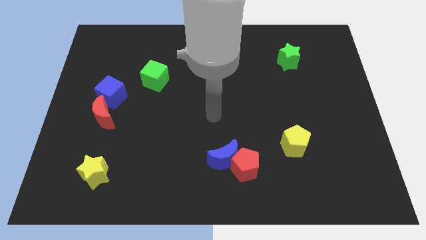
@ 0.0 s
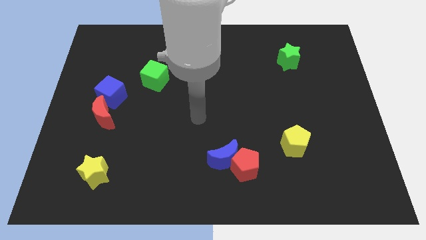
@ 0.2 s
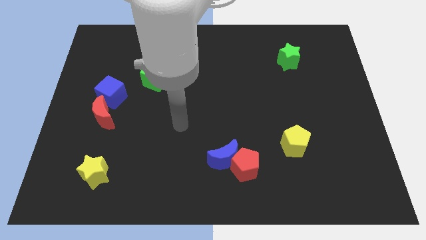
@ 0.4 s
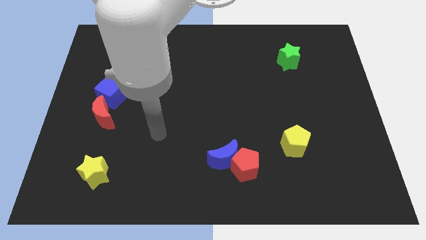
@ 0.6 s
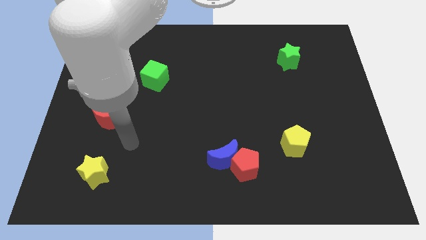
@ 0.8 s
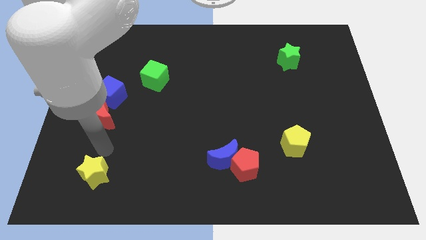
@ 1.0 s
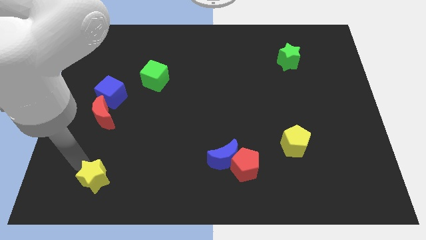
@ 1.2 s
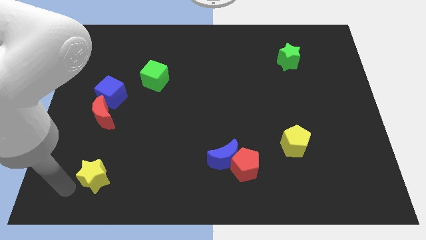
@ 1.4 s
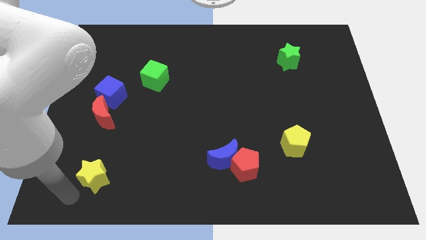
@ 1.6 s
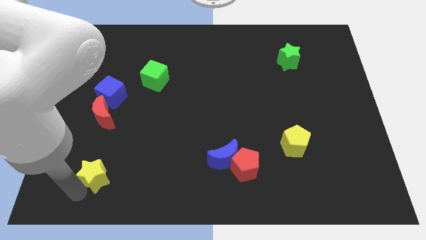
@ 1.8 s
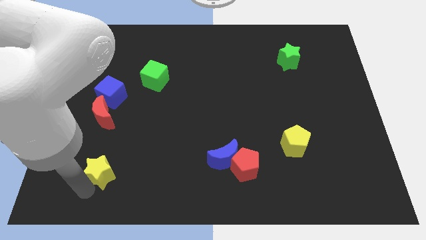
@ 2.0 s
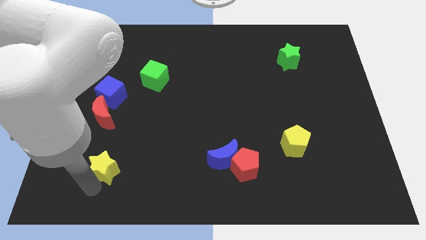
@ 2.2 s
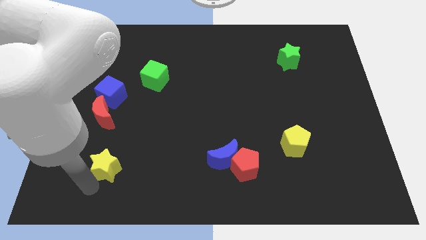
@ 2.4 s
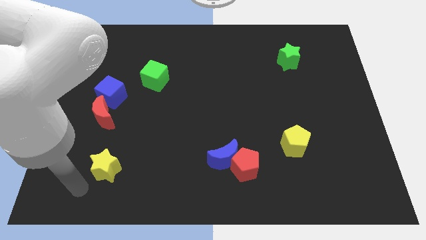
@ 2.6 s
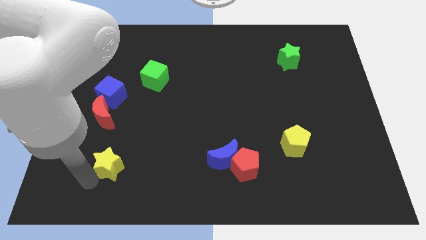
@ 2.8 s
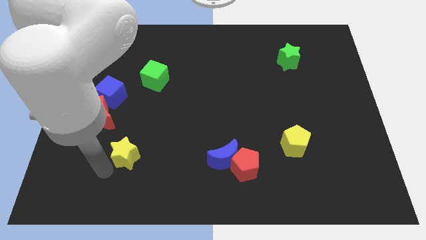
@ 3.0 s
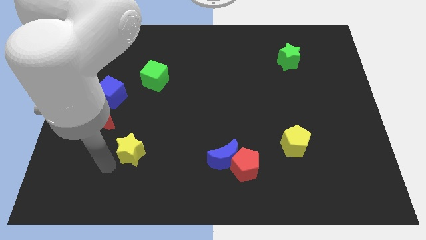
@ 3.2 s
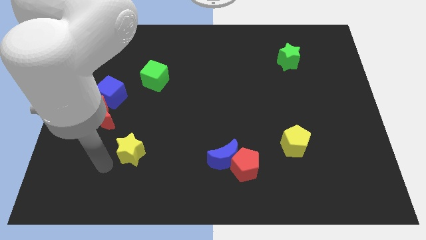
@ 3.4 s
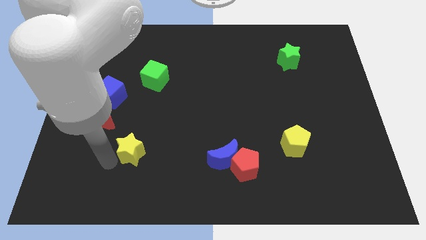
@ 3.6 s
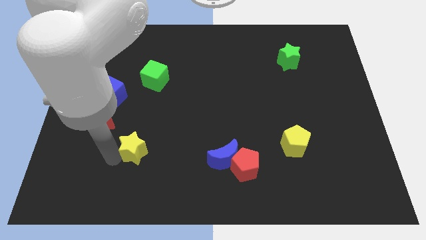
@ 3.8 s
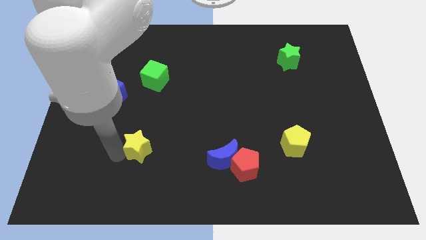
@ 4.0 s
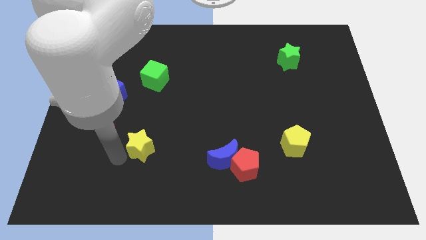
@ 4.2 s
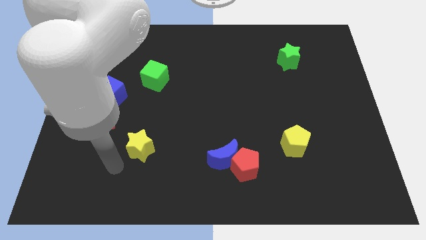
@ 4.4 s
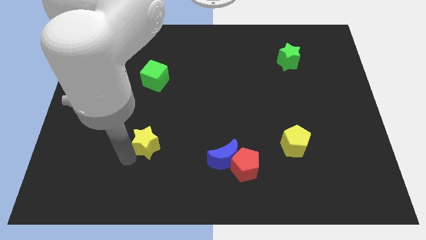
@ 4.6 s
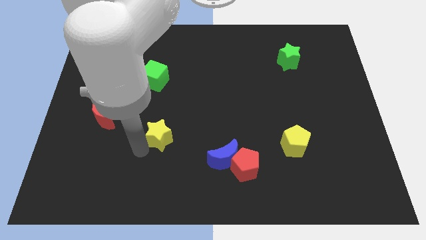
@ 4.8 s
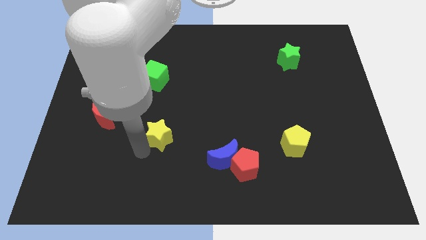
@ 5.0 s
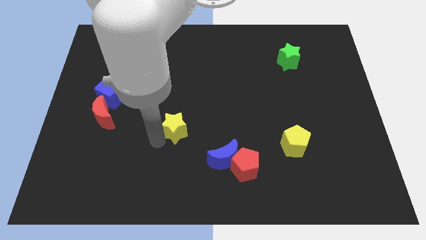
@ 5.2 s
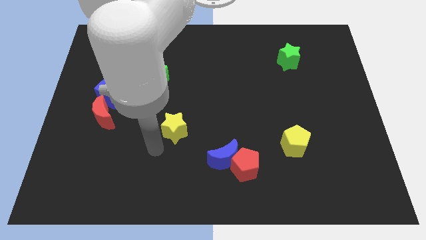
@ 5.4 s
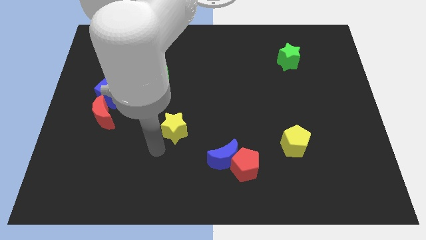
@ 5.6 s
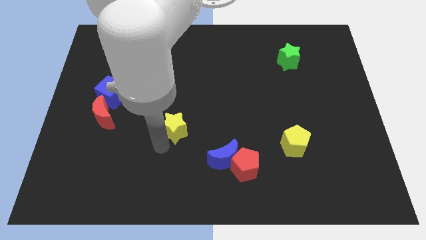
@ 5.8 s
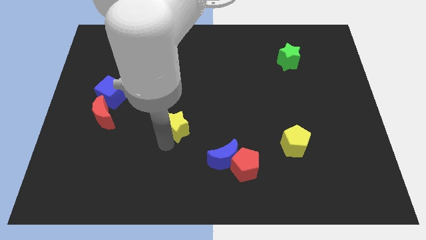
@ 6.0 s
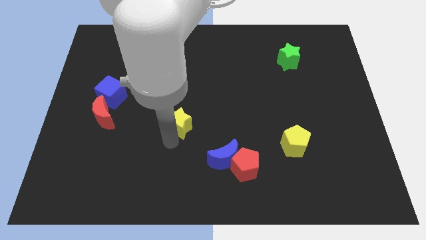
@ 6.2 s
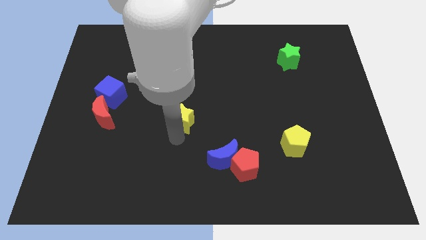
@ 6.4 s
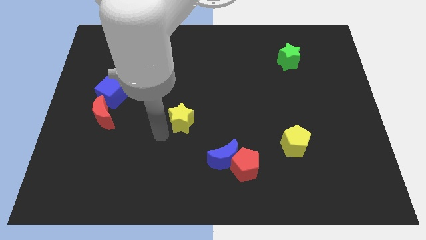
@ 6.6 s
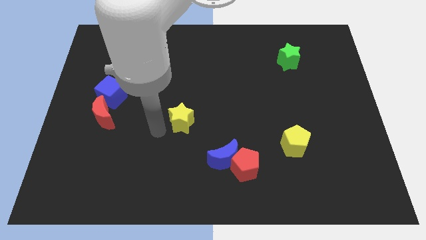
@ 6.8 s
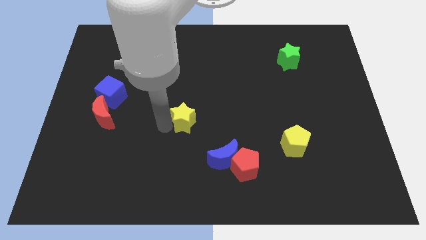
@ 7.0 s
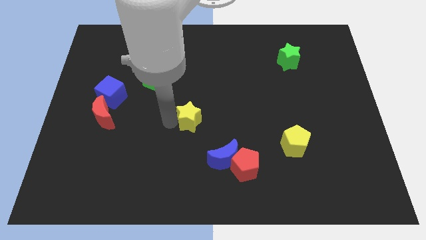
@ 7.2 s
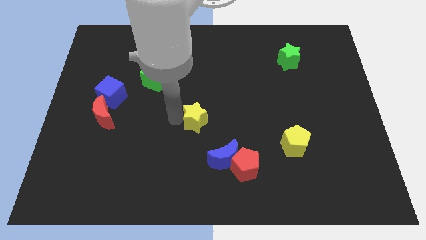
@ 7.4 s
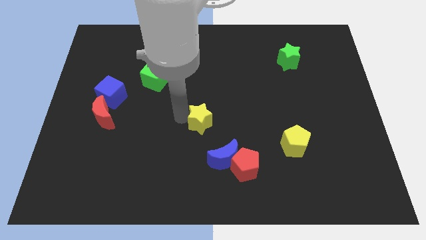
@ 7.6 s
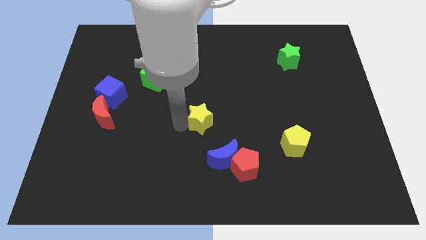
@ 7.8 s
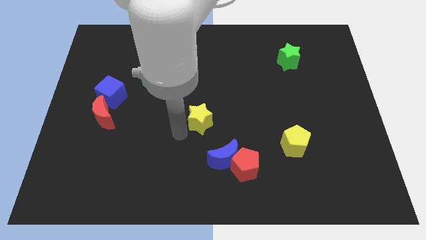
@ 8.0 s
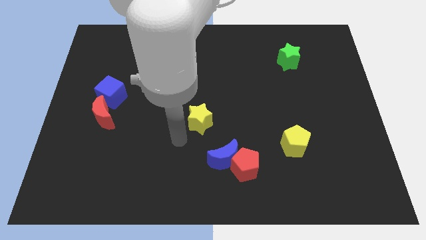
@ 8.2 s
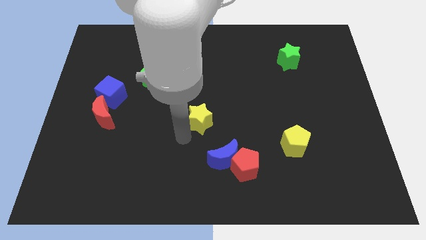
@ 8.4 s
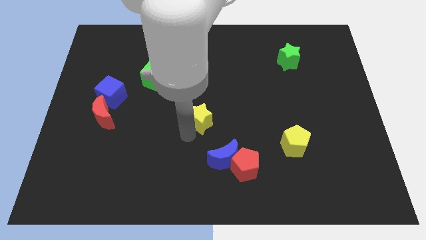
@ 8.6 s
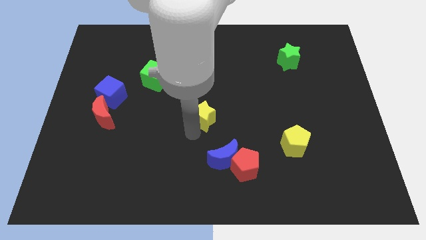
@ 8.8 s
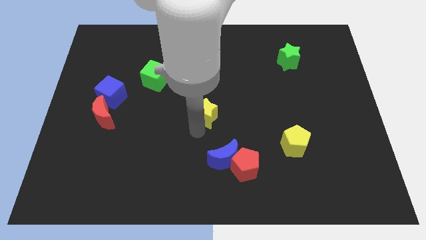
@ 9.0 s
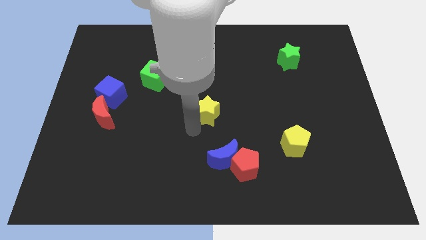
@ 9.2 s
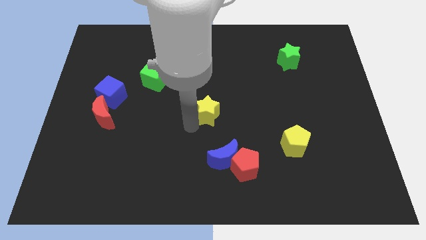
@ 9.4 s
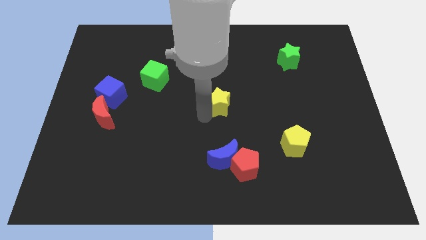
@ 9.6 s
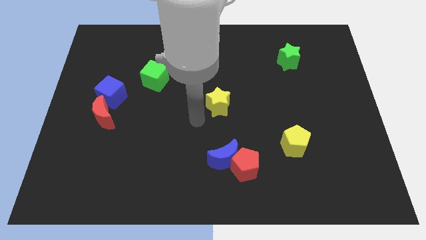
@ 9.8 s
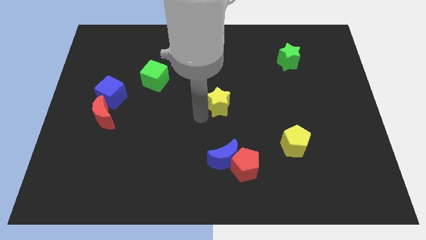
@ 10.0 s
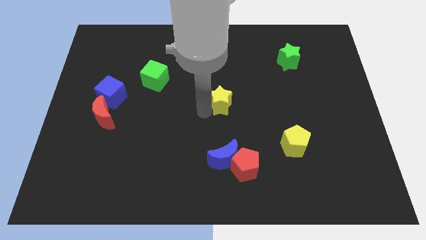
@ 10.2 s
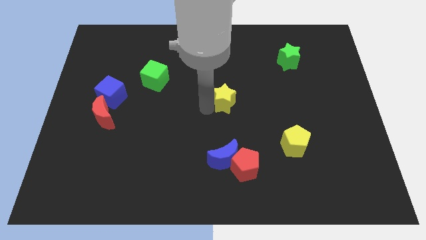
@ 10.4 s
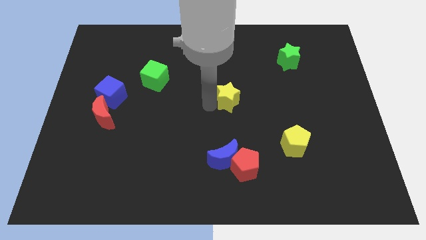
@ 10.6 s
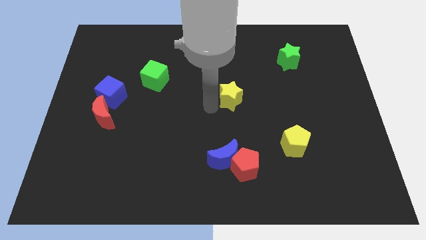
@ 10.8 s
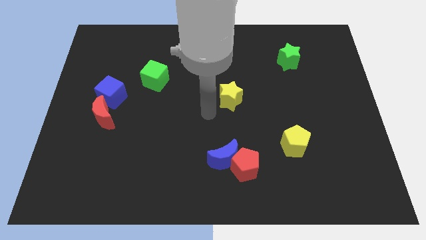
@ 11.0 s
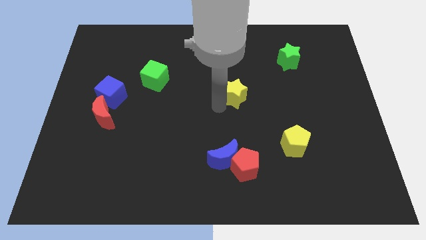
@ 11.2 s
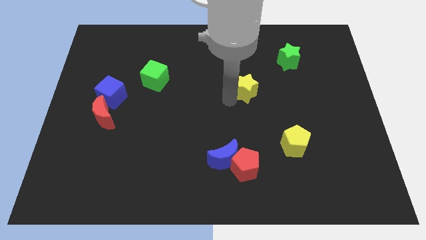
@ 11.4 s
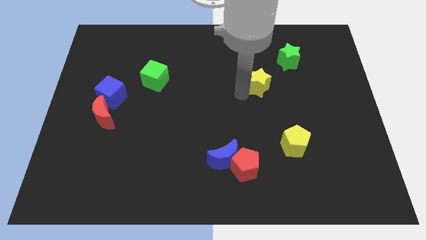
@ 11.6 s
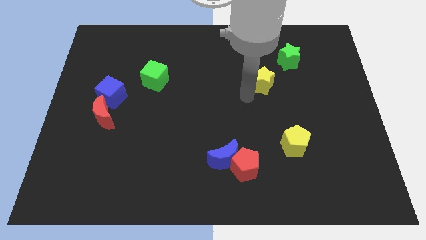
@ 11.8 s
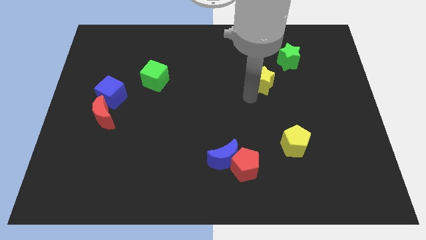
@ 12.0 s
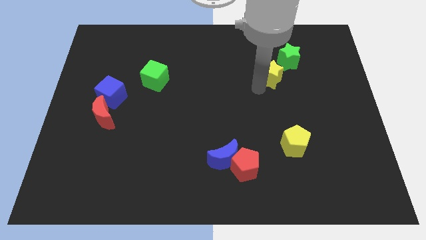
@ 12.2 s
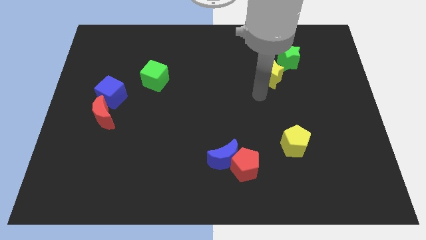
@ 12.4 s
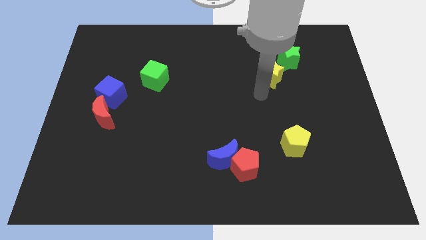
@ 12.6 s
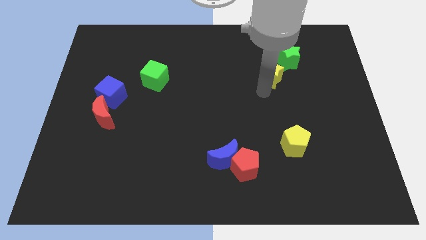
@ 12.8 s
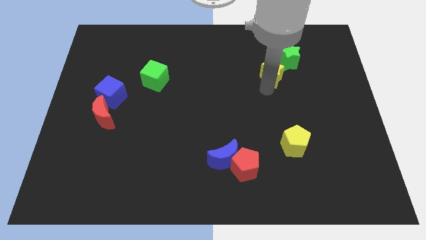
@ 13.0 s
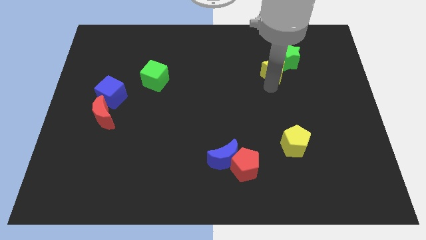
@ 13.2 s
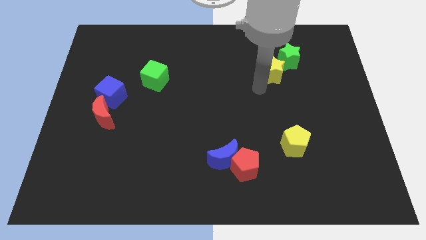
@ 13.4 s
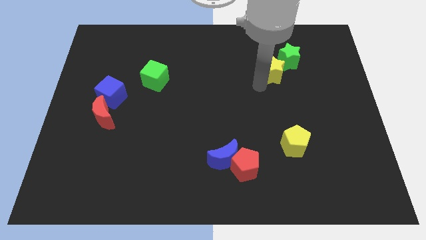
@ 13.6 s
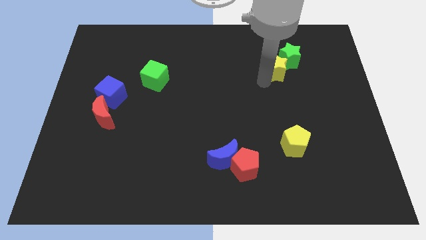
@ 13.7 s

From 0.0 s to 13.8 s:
push the yellow star close to the green star

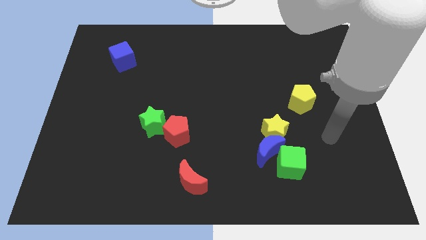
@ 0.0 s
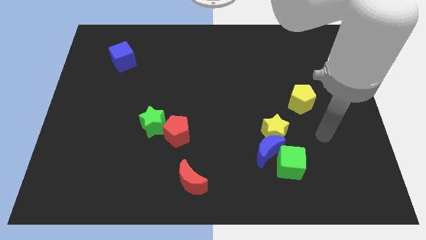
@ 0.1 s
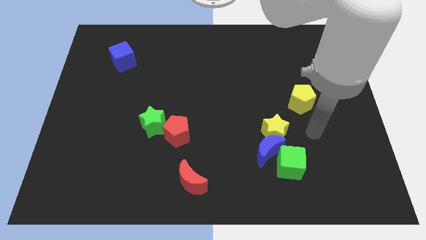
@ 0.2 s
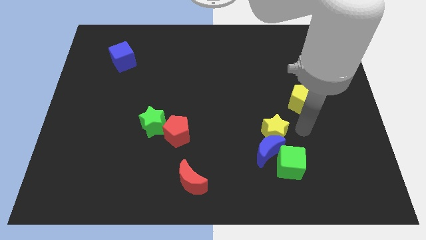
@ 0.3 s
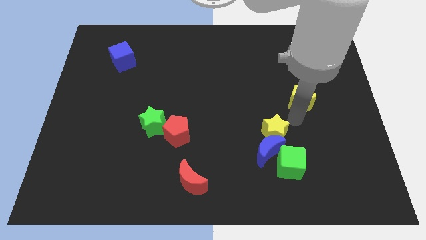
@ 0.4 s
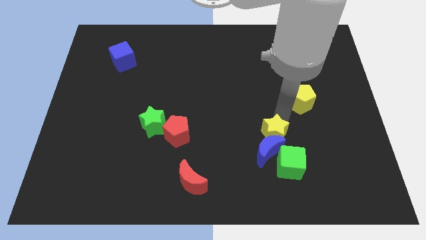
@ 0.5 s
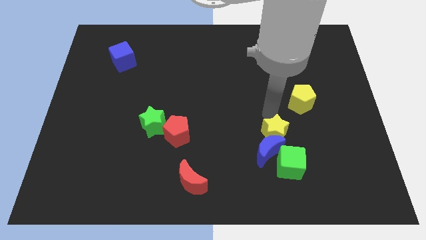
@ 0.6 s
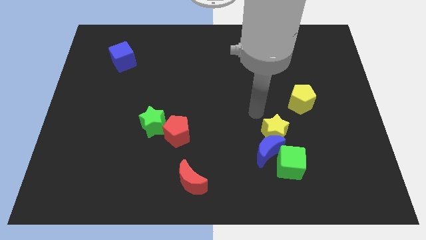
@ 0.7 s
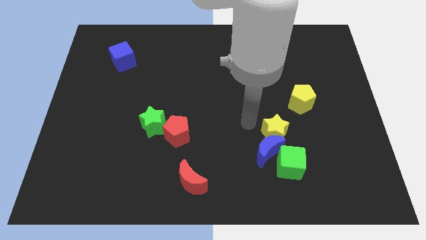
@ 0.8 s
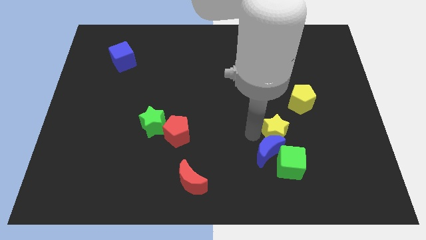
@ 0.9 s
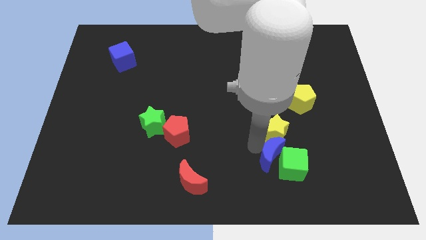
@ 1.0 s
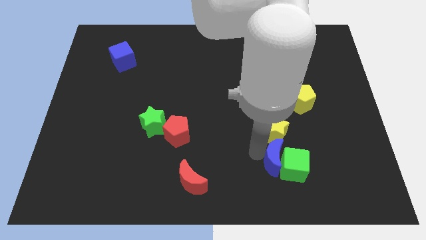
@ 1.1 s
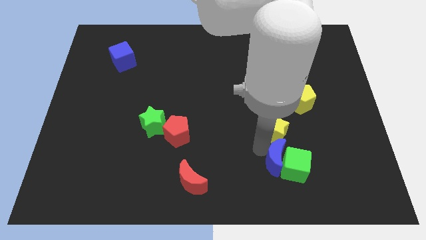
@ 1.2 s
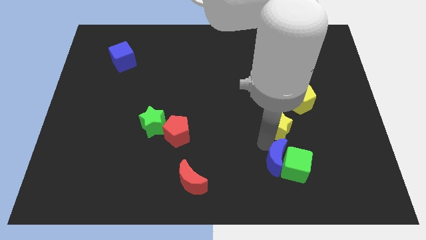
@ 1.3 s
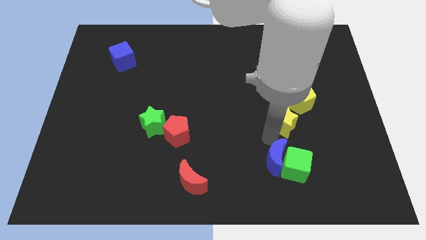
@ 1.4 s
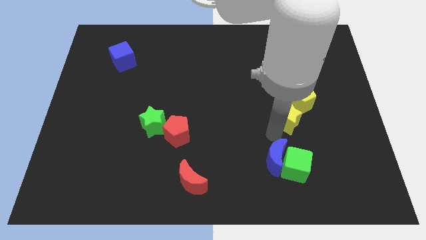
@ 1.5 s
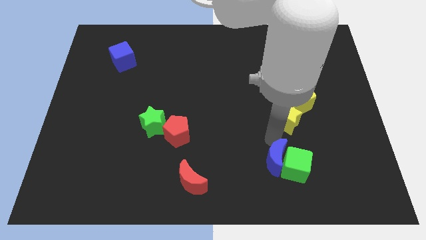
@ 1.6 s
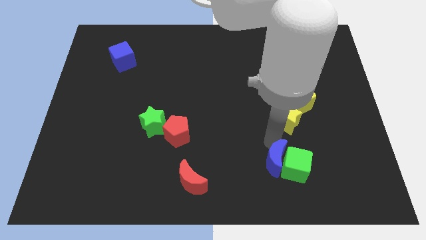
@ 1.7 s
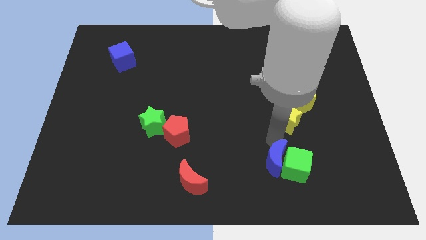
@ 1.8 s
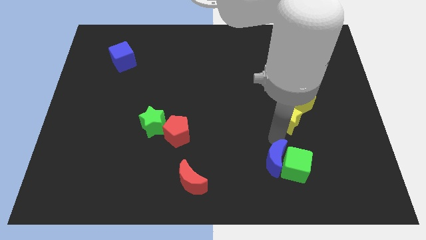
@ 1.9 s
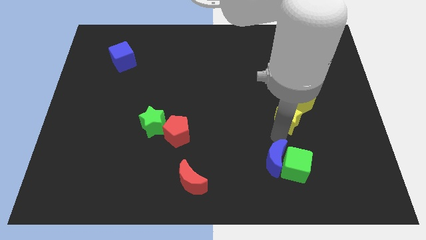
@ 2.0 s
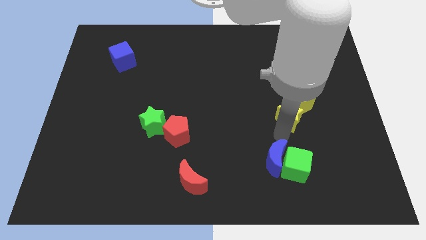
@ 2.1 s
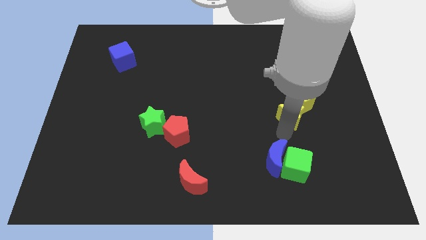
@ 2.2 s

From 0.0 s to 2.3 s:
put the yellow star to the yellow pentagon
